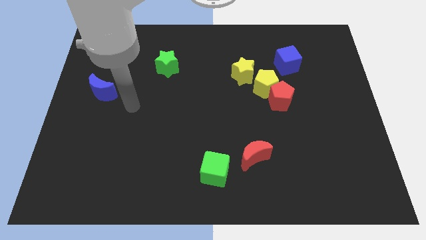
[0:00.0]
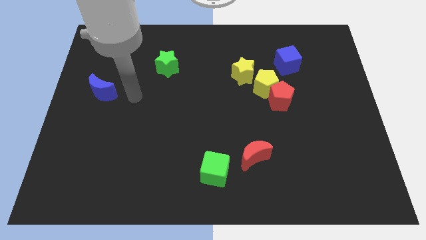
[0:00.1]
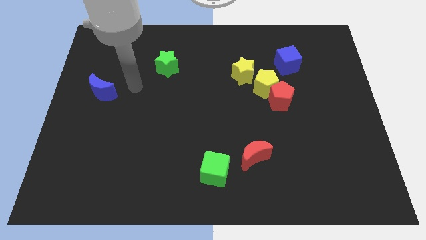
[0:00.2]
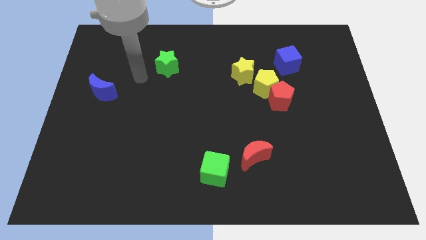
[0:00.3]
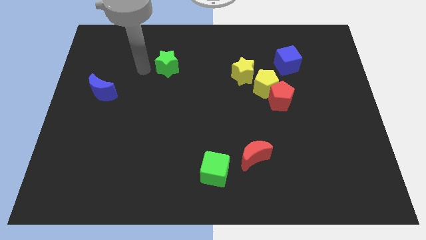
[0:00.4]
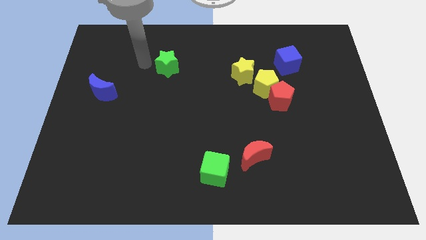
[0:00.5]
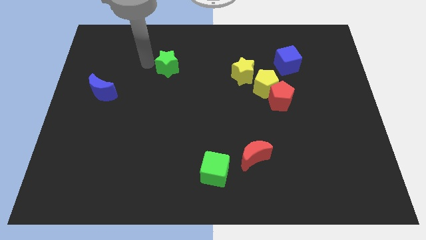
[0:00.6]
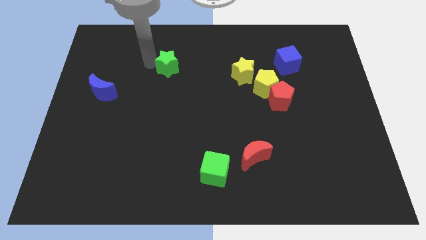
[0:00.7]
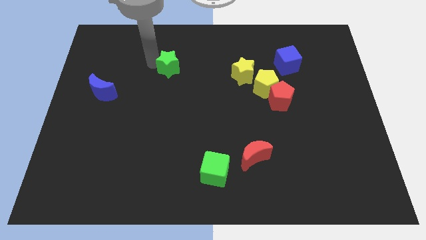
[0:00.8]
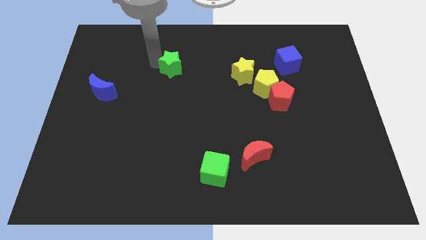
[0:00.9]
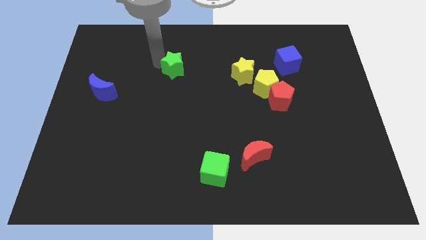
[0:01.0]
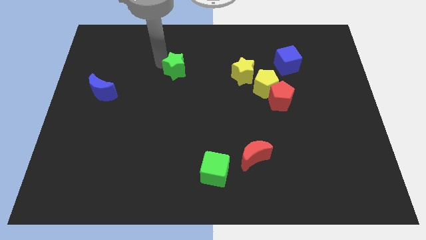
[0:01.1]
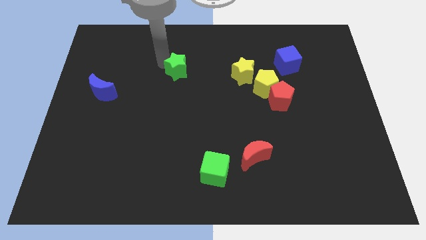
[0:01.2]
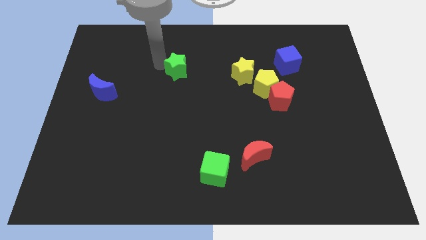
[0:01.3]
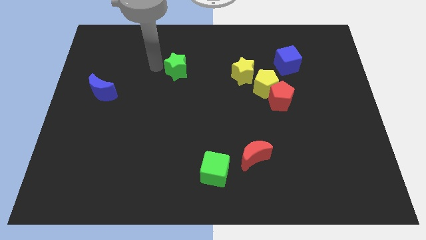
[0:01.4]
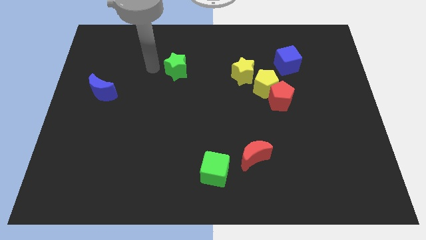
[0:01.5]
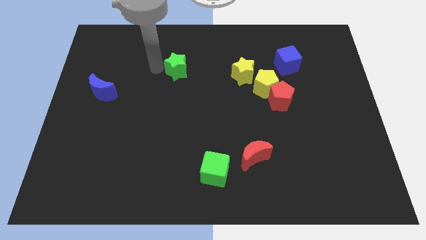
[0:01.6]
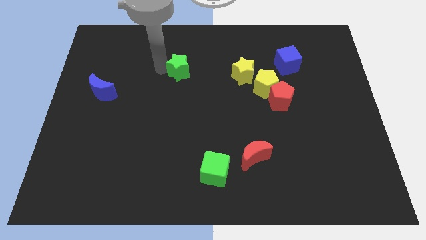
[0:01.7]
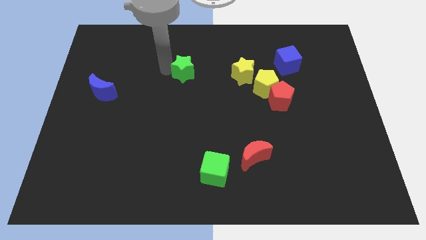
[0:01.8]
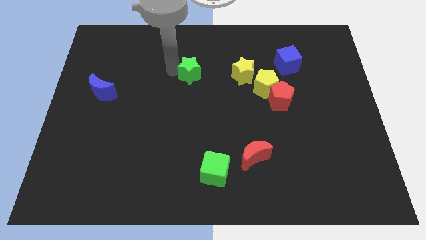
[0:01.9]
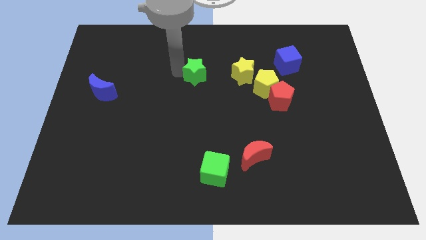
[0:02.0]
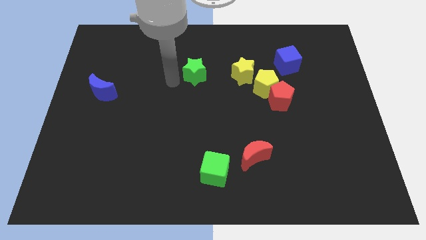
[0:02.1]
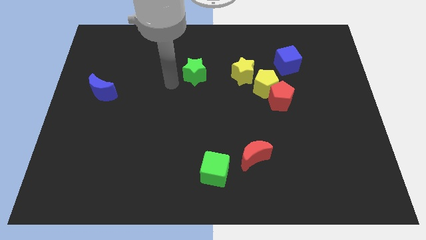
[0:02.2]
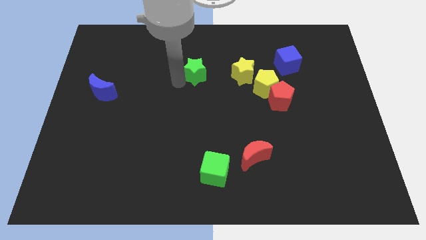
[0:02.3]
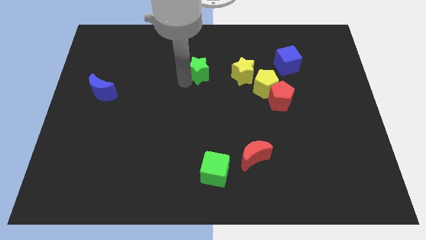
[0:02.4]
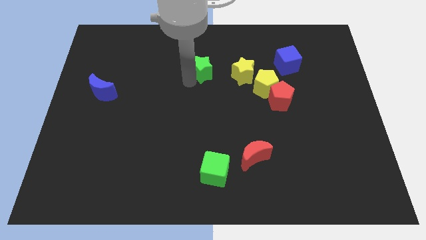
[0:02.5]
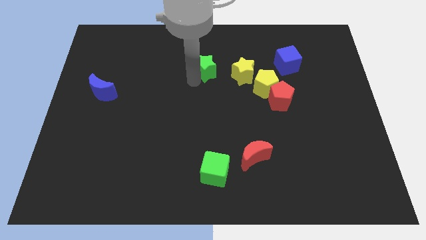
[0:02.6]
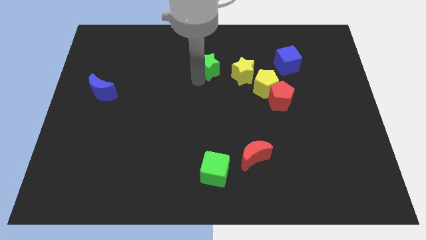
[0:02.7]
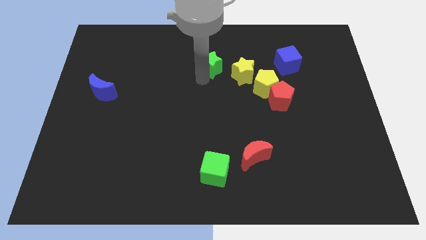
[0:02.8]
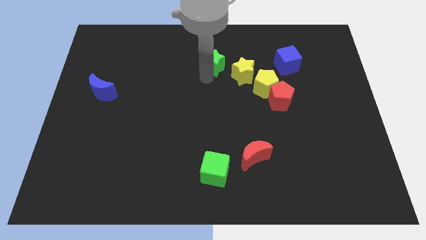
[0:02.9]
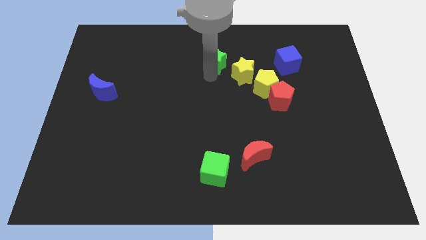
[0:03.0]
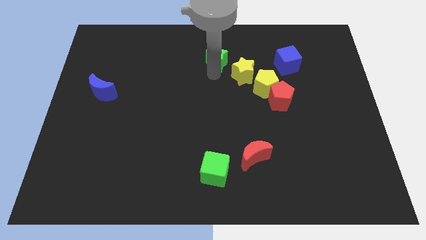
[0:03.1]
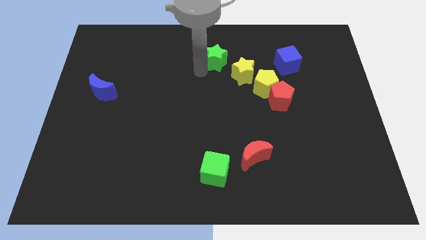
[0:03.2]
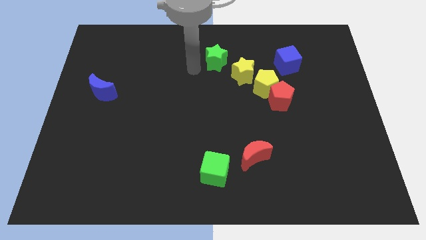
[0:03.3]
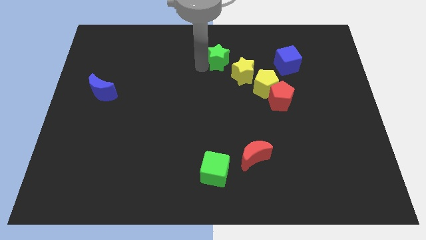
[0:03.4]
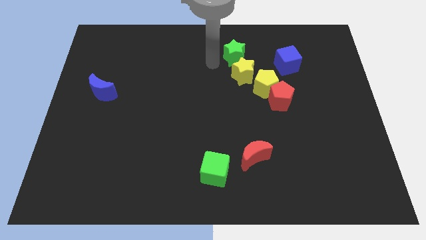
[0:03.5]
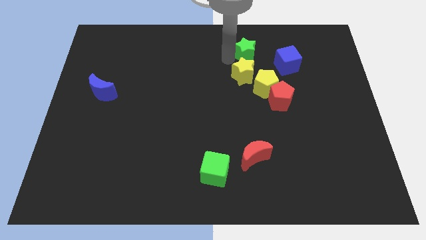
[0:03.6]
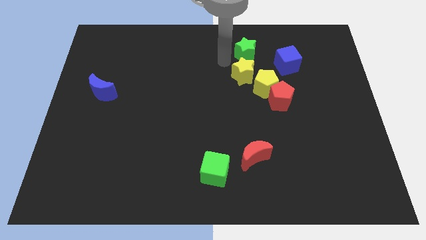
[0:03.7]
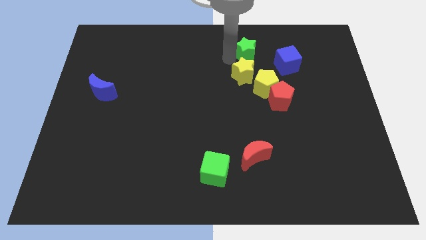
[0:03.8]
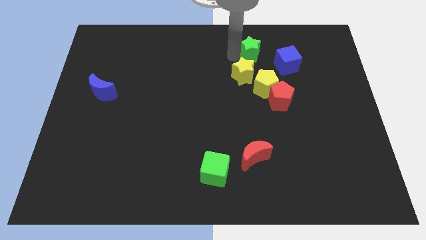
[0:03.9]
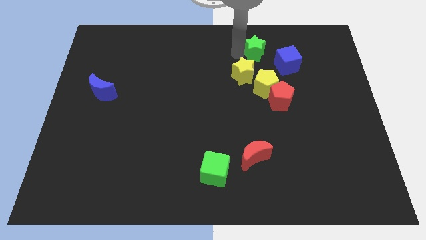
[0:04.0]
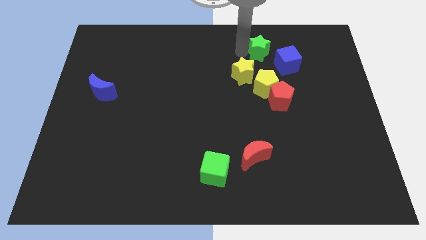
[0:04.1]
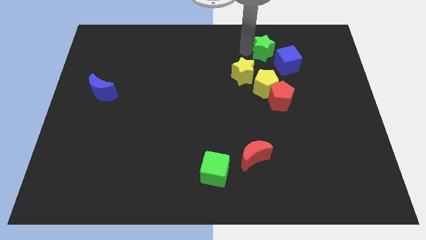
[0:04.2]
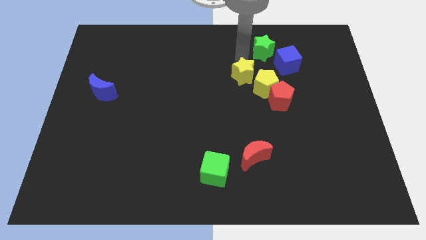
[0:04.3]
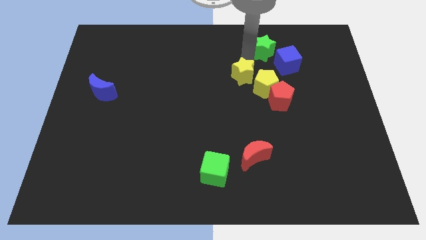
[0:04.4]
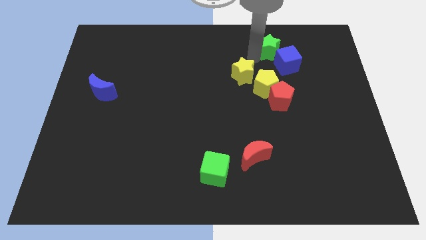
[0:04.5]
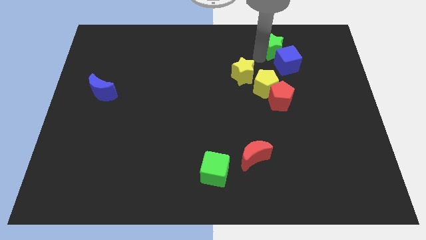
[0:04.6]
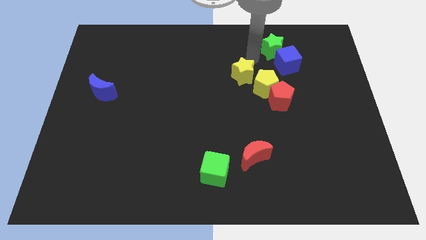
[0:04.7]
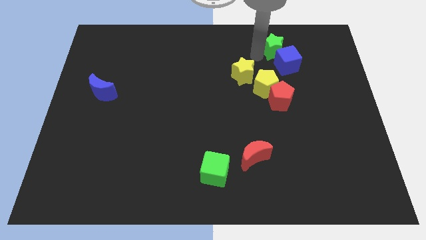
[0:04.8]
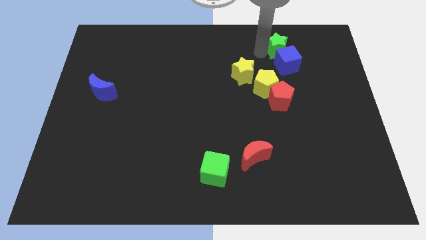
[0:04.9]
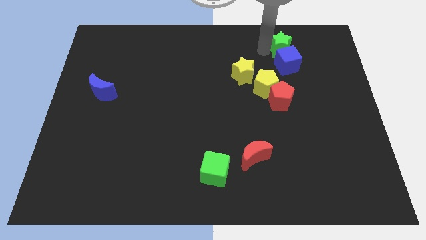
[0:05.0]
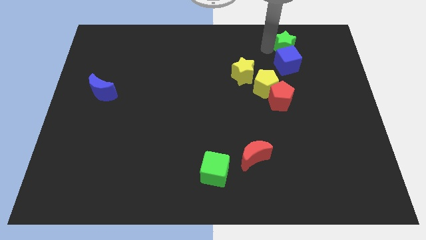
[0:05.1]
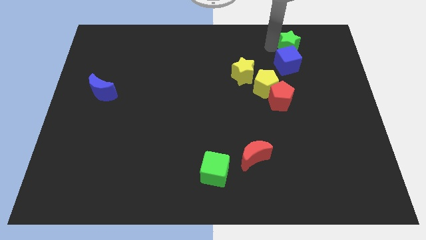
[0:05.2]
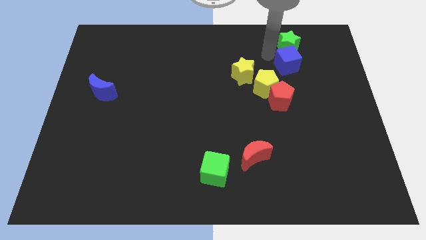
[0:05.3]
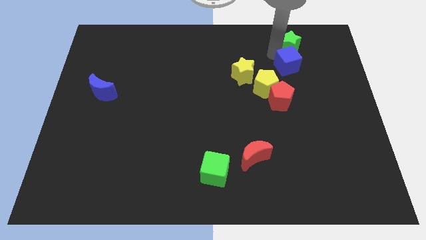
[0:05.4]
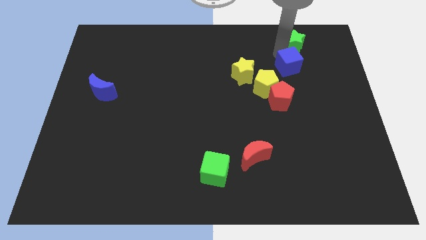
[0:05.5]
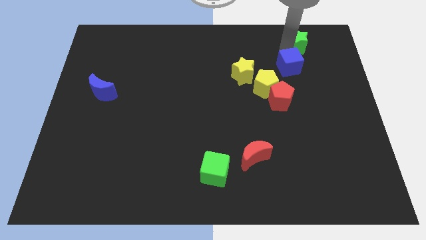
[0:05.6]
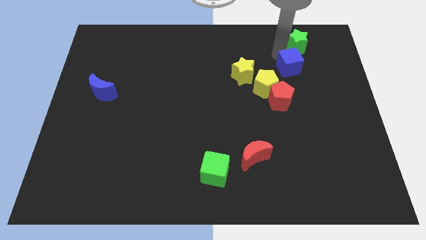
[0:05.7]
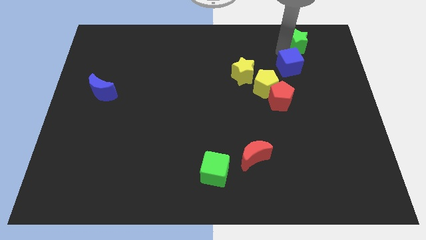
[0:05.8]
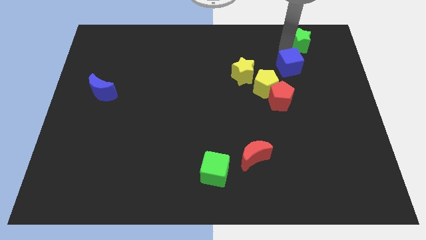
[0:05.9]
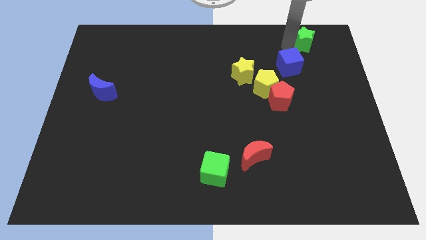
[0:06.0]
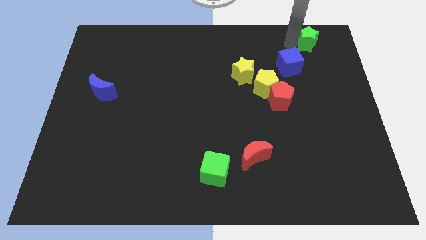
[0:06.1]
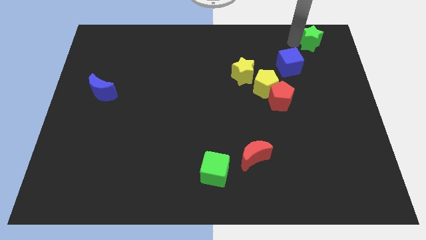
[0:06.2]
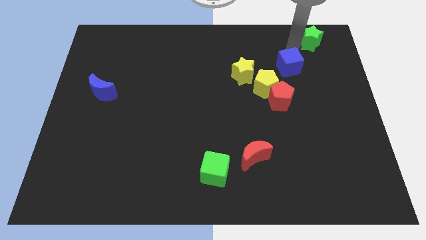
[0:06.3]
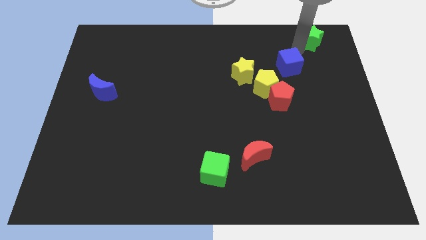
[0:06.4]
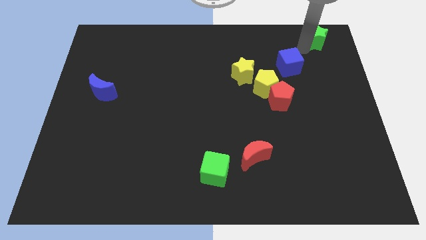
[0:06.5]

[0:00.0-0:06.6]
slide the green star to the upper right corner
